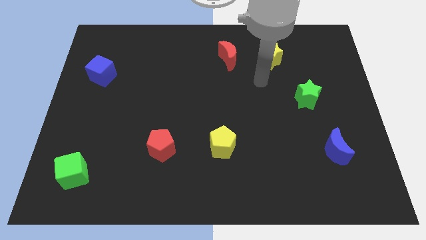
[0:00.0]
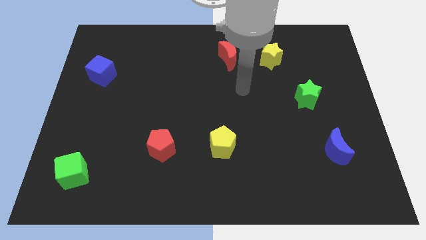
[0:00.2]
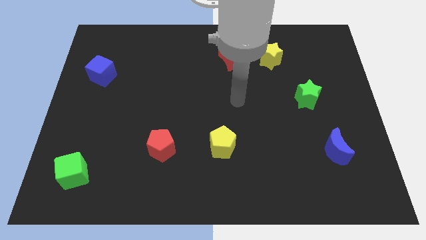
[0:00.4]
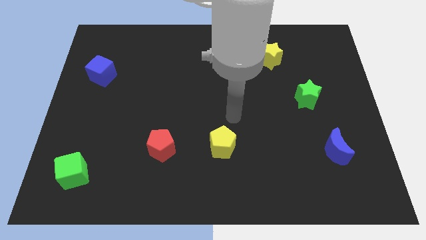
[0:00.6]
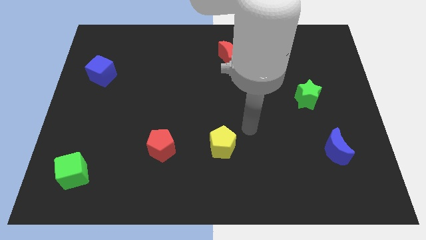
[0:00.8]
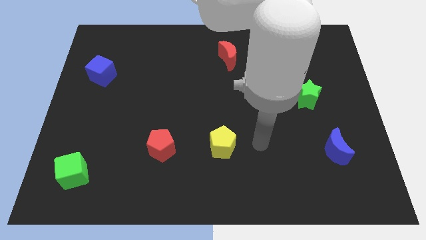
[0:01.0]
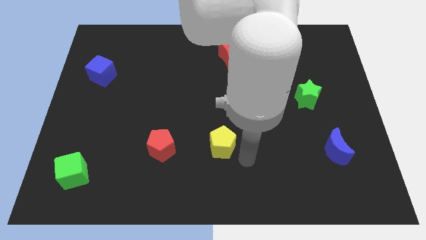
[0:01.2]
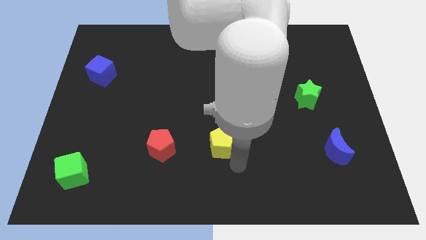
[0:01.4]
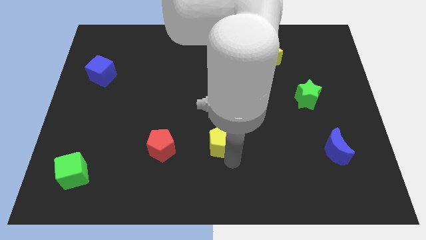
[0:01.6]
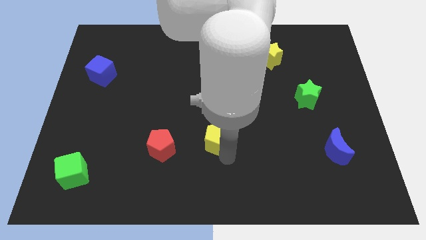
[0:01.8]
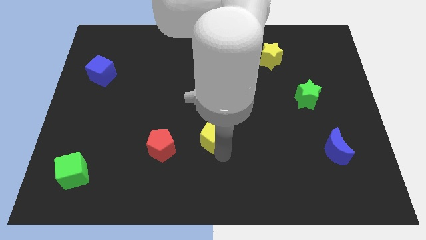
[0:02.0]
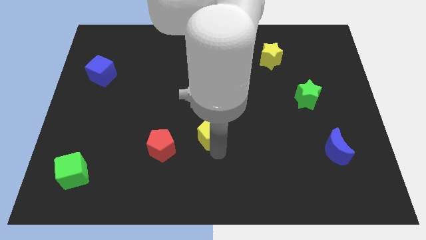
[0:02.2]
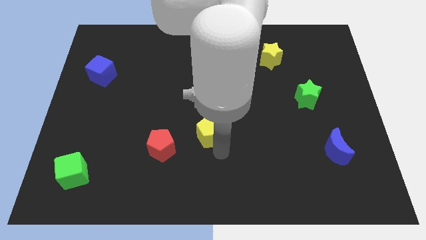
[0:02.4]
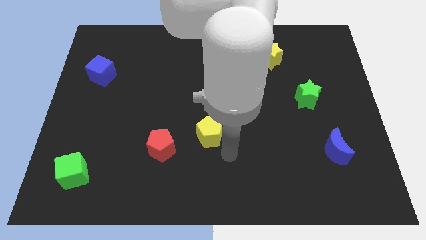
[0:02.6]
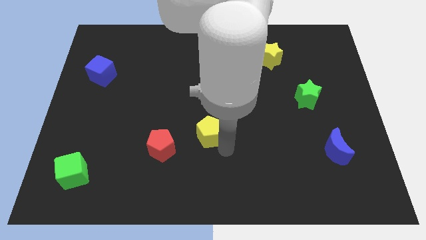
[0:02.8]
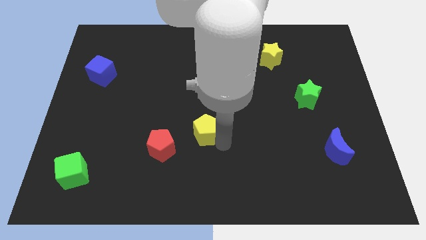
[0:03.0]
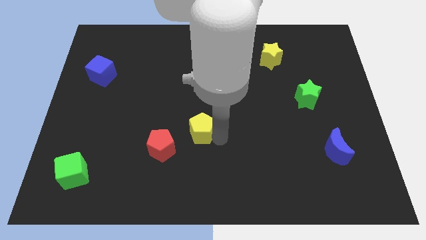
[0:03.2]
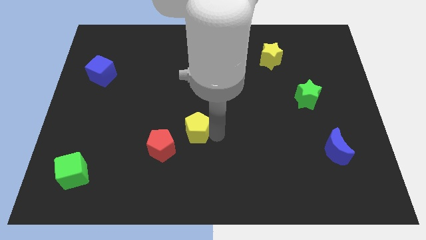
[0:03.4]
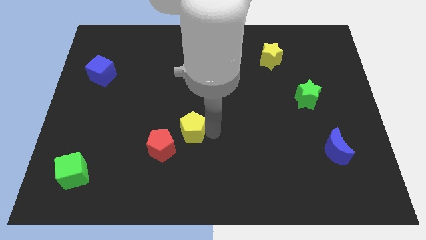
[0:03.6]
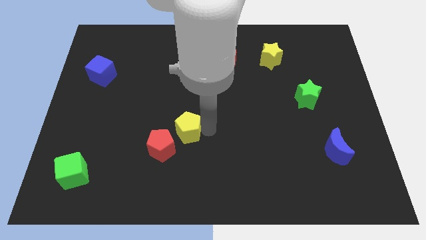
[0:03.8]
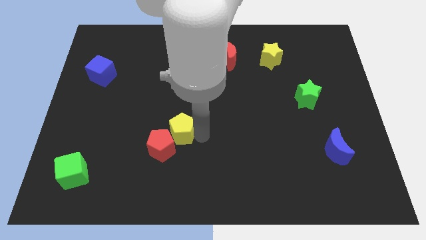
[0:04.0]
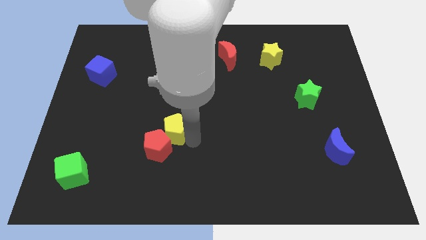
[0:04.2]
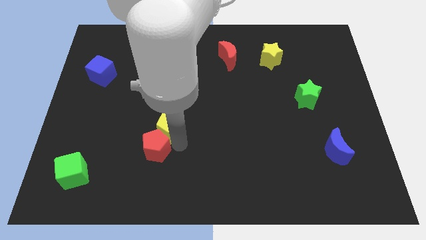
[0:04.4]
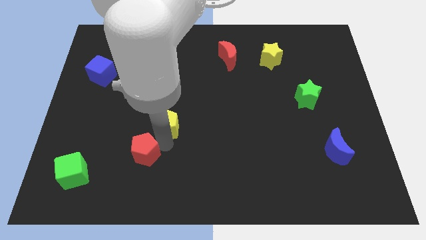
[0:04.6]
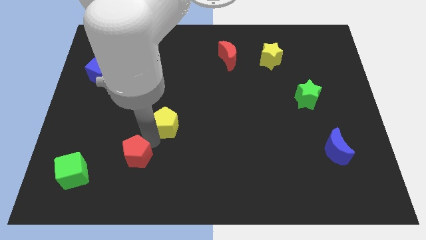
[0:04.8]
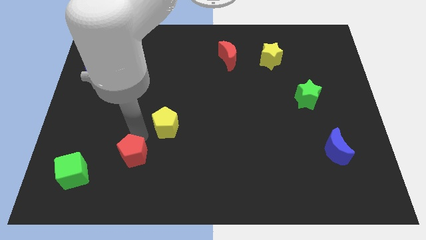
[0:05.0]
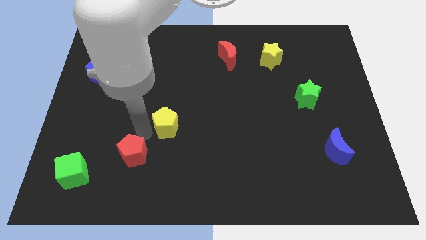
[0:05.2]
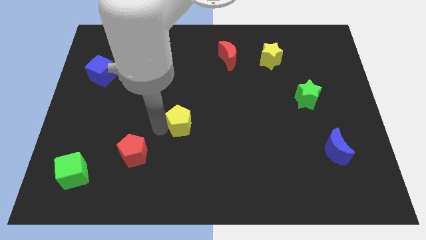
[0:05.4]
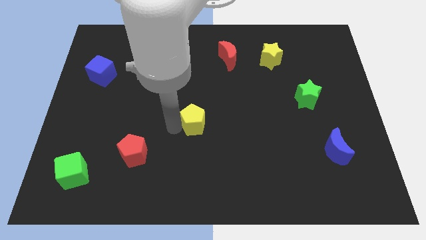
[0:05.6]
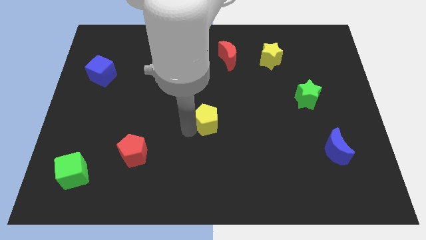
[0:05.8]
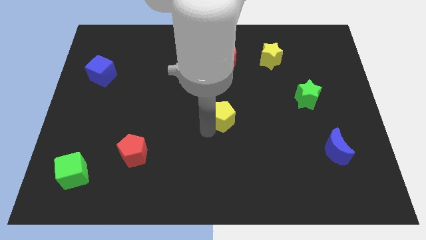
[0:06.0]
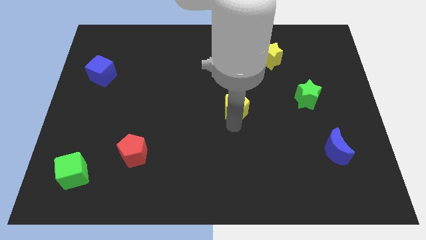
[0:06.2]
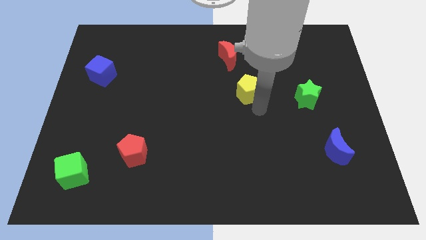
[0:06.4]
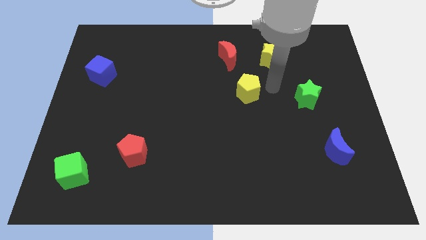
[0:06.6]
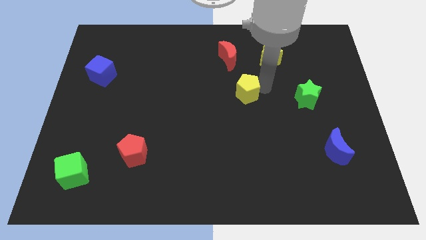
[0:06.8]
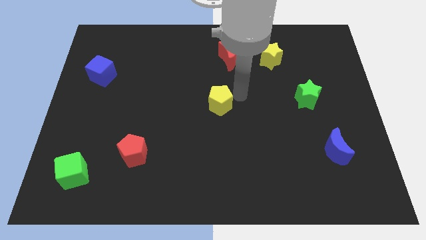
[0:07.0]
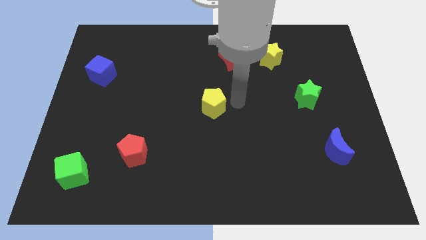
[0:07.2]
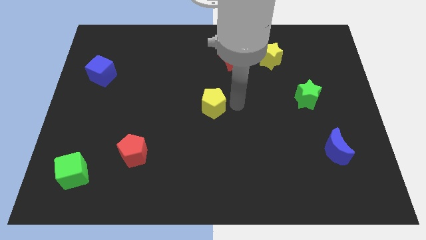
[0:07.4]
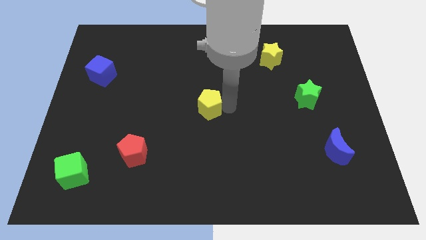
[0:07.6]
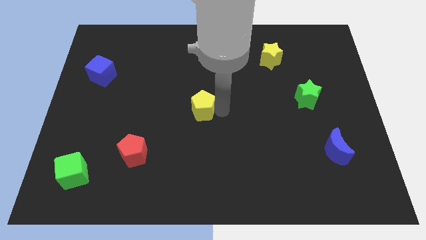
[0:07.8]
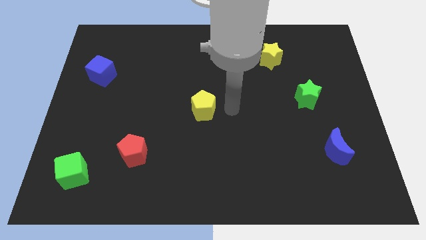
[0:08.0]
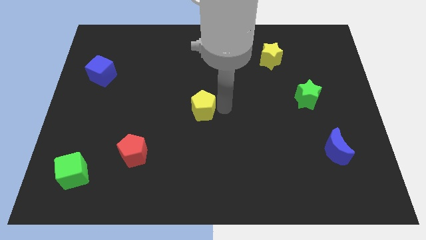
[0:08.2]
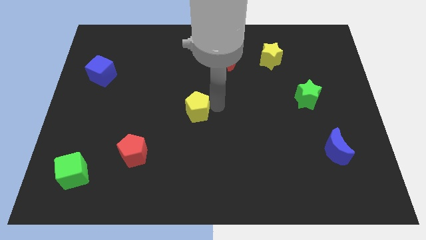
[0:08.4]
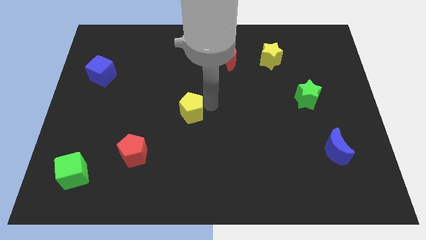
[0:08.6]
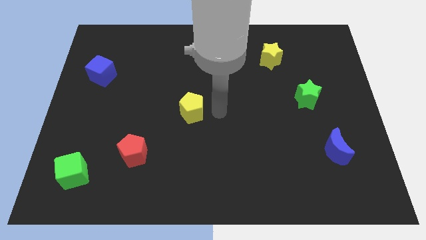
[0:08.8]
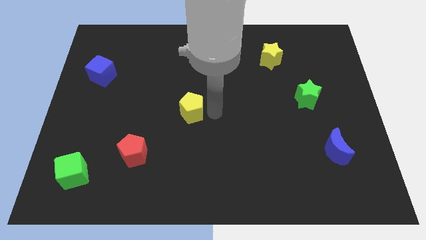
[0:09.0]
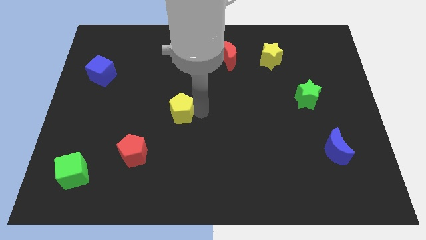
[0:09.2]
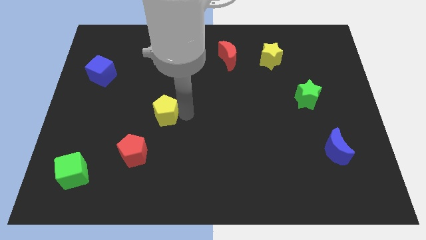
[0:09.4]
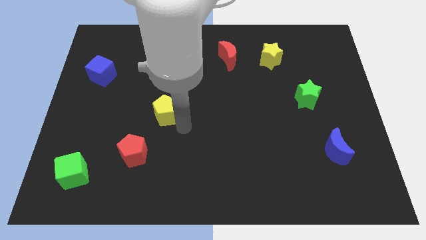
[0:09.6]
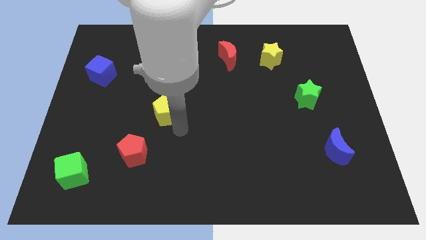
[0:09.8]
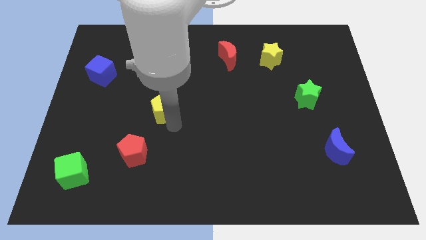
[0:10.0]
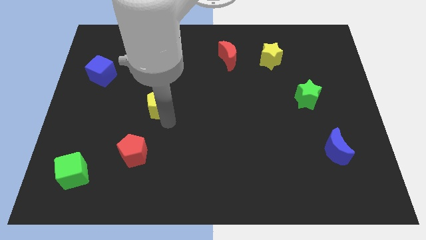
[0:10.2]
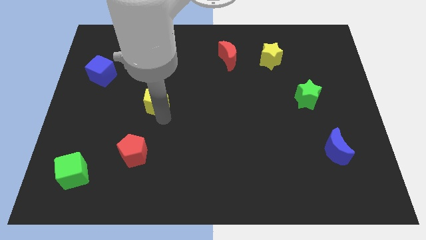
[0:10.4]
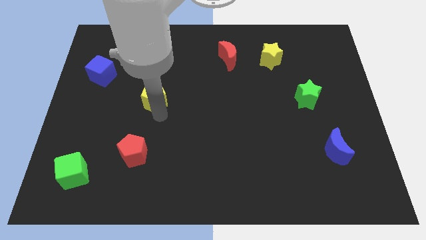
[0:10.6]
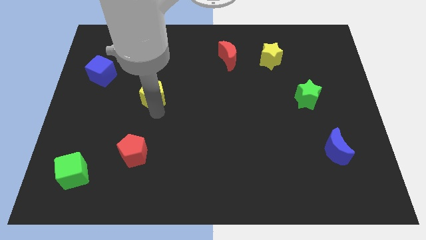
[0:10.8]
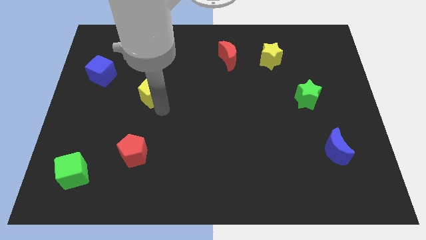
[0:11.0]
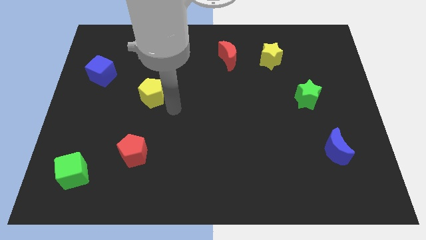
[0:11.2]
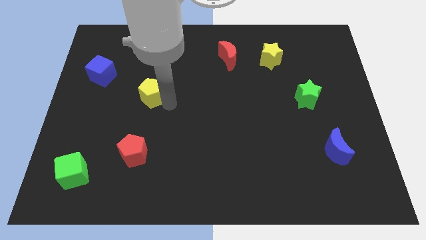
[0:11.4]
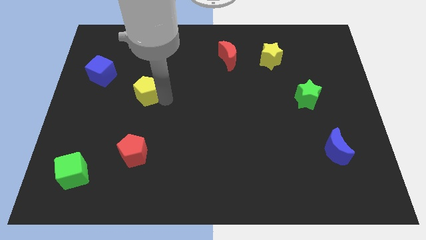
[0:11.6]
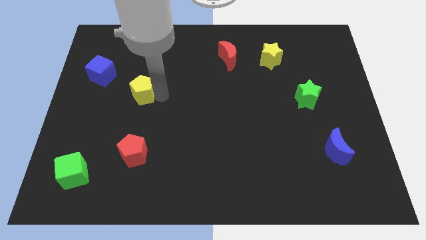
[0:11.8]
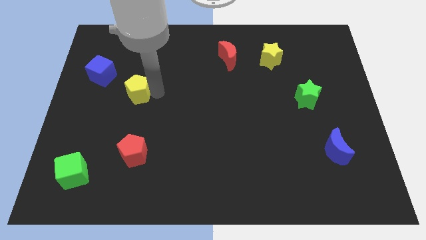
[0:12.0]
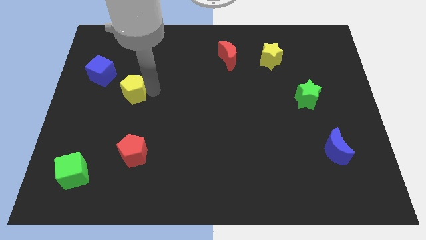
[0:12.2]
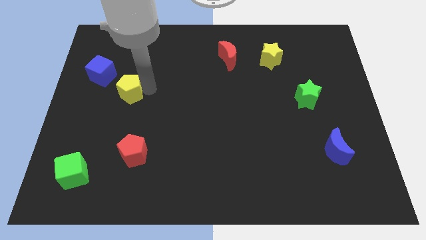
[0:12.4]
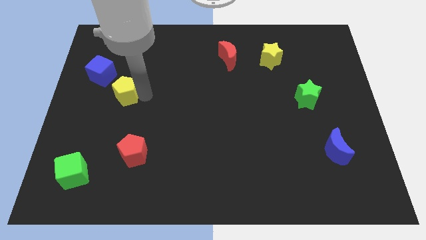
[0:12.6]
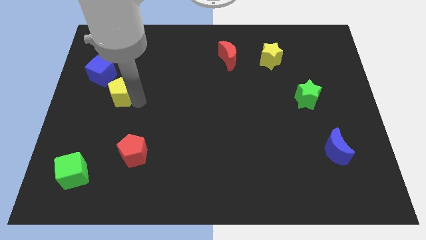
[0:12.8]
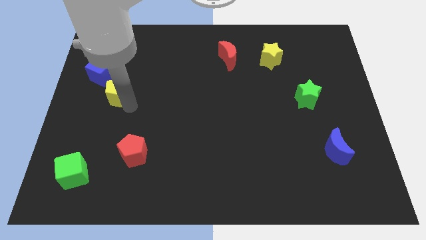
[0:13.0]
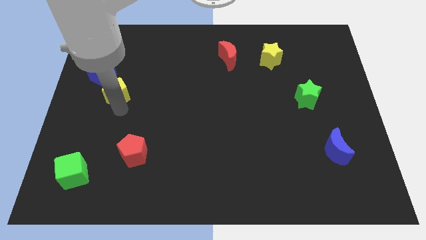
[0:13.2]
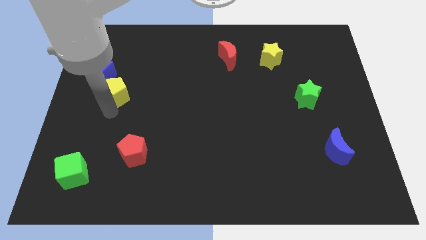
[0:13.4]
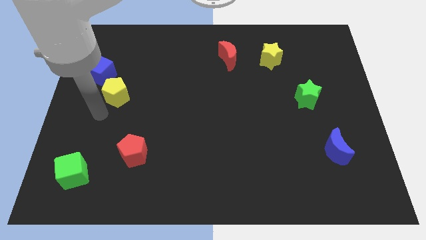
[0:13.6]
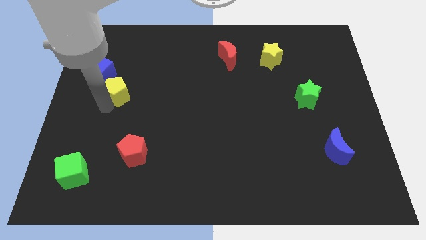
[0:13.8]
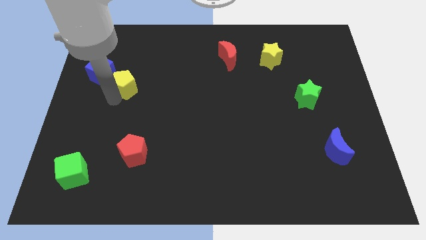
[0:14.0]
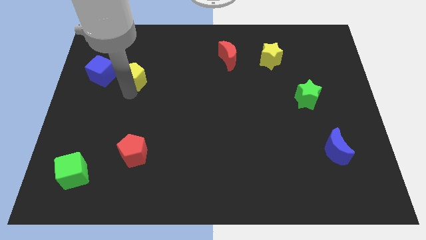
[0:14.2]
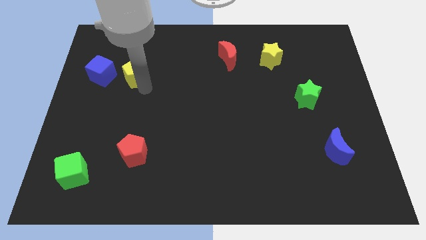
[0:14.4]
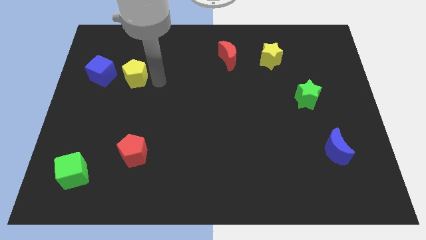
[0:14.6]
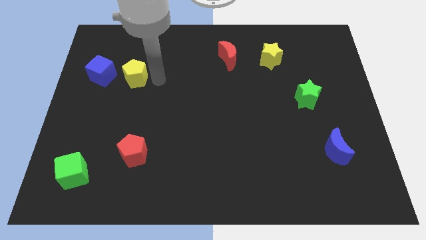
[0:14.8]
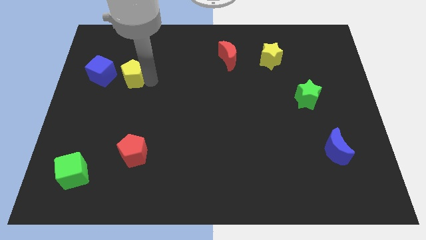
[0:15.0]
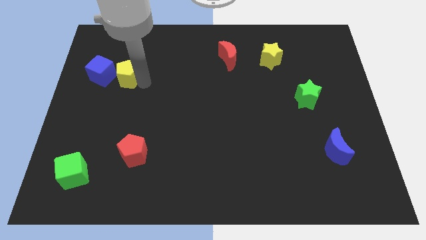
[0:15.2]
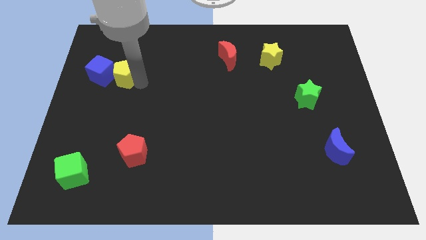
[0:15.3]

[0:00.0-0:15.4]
put the yellow pentagon close to the blue cube
